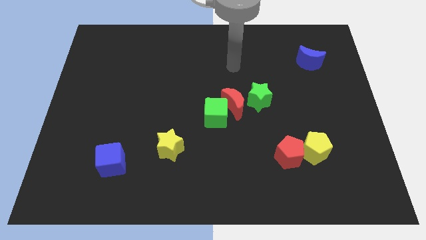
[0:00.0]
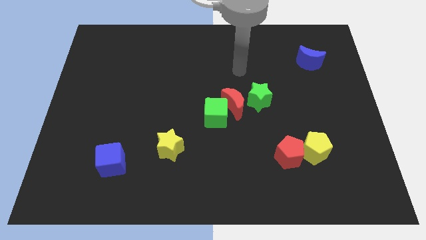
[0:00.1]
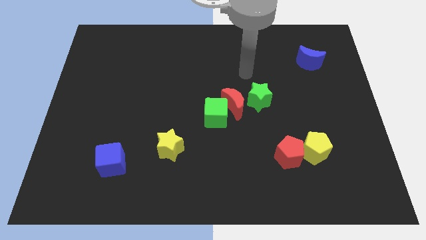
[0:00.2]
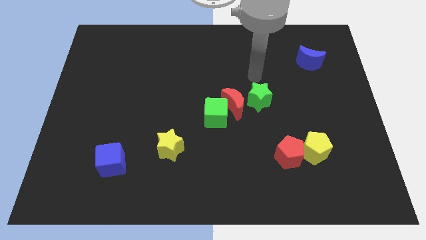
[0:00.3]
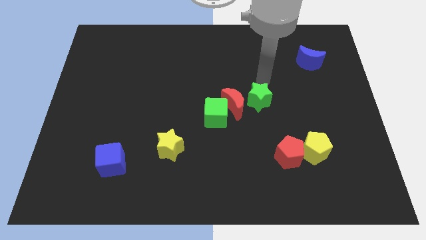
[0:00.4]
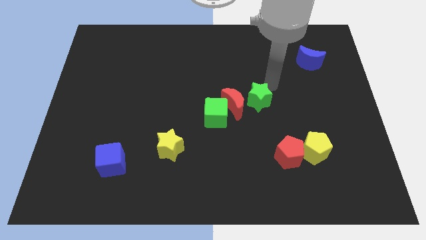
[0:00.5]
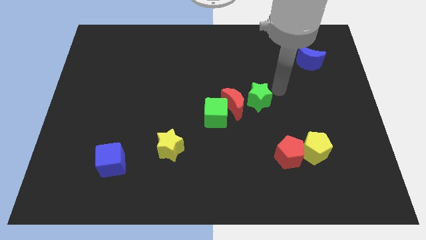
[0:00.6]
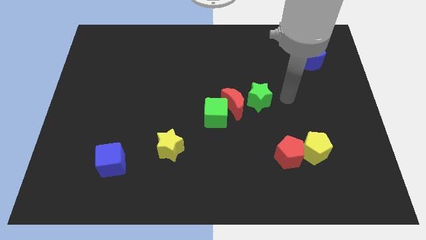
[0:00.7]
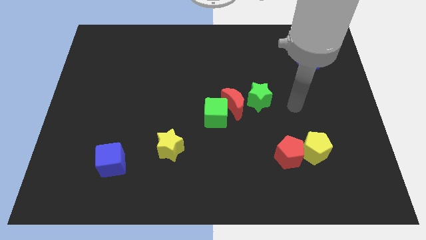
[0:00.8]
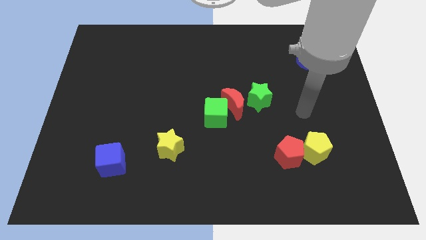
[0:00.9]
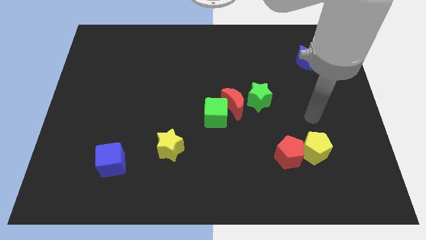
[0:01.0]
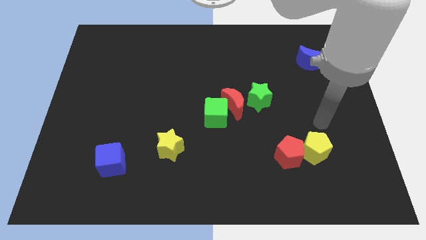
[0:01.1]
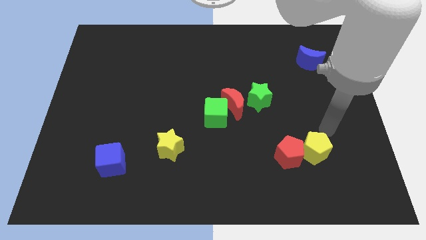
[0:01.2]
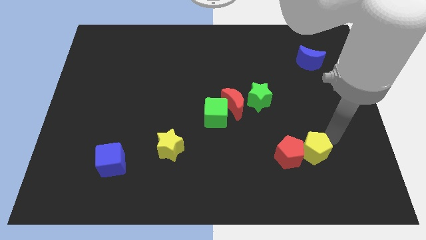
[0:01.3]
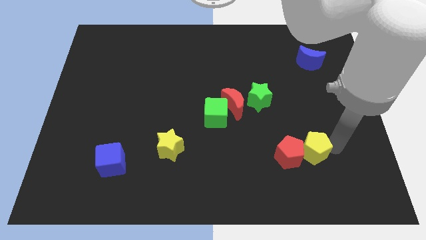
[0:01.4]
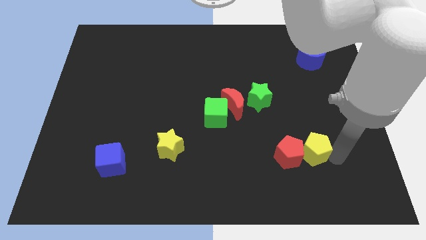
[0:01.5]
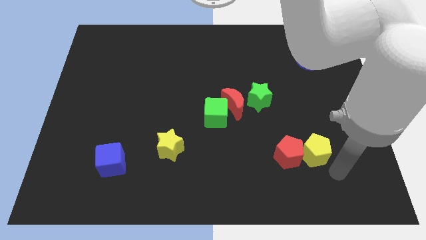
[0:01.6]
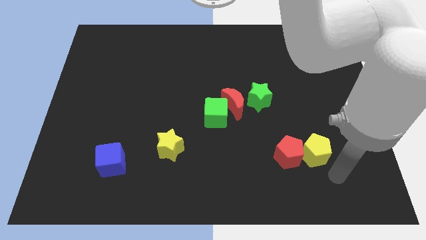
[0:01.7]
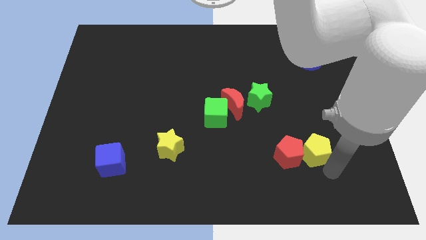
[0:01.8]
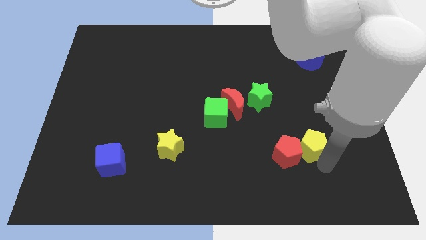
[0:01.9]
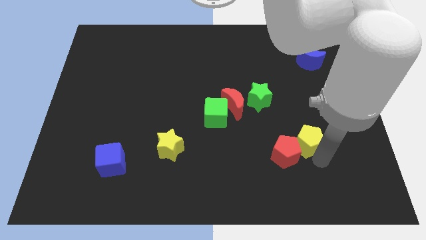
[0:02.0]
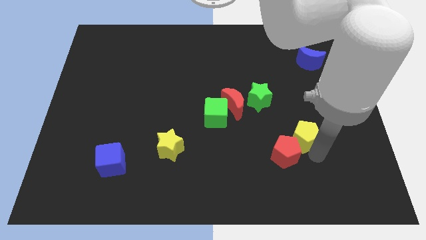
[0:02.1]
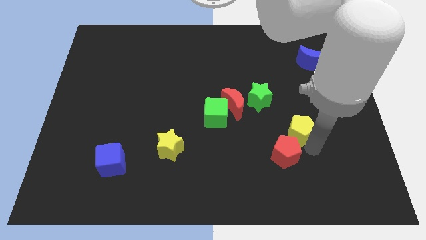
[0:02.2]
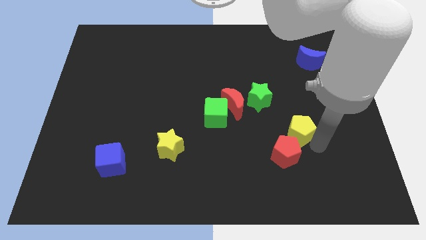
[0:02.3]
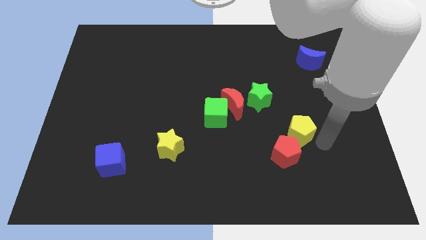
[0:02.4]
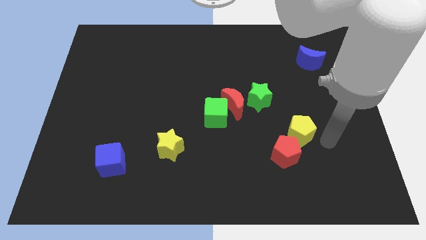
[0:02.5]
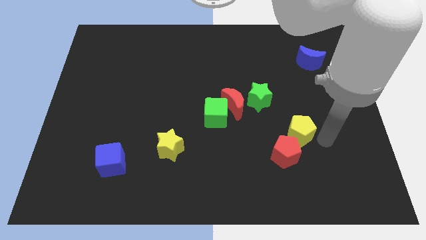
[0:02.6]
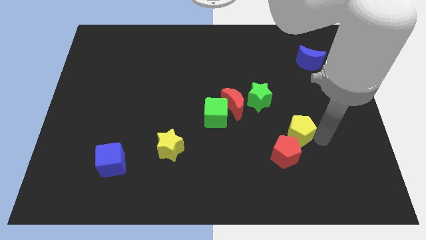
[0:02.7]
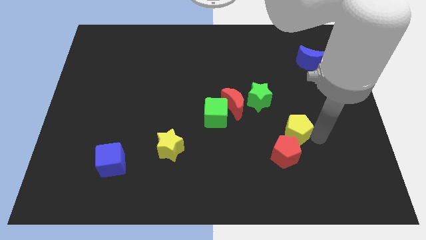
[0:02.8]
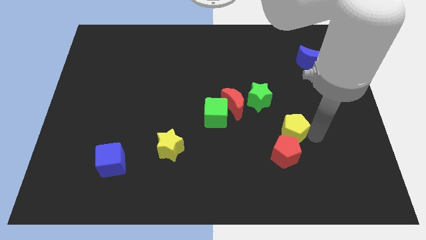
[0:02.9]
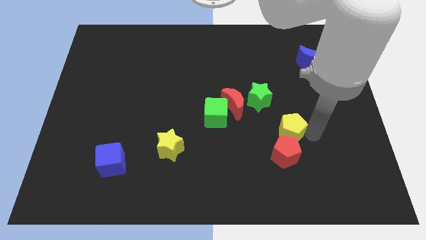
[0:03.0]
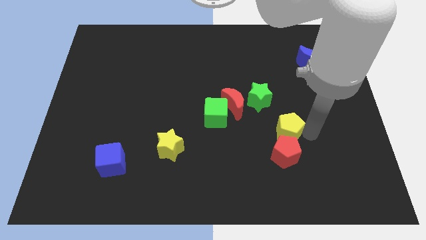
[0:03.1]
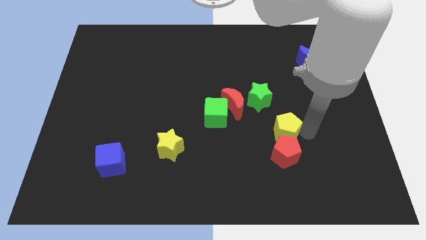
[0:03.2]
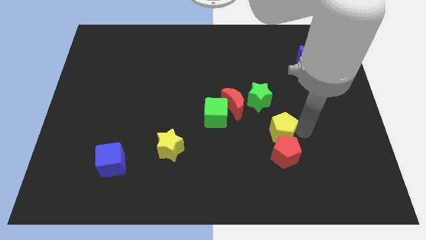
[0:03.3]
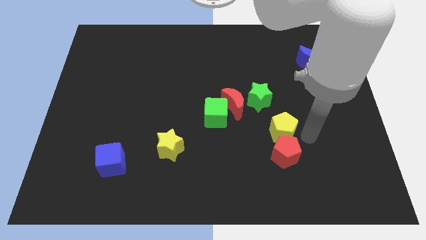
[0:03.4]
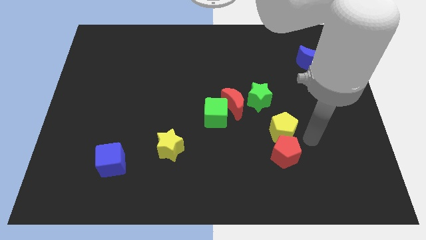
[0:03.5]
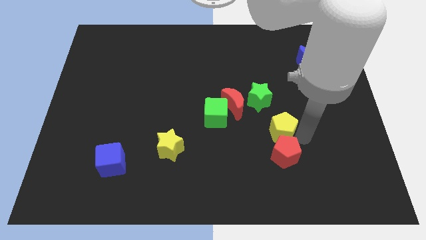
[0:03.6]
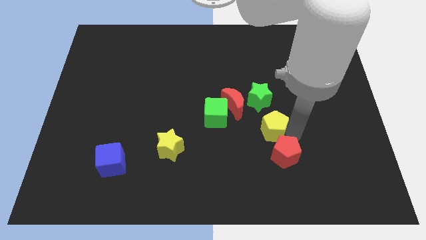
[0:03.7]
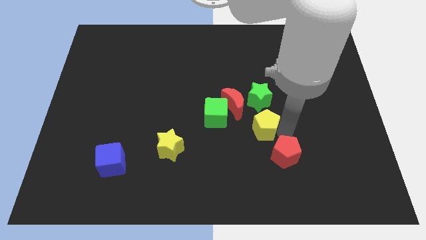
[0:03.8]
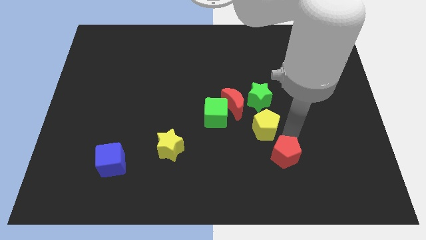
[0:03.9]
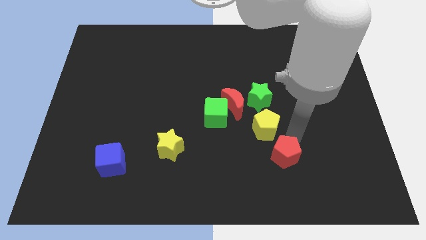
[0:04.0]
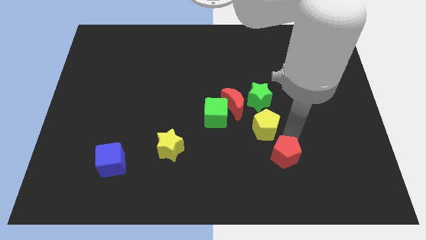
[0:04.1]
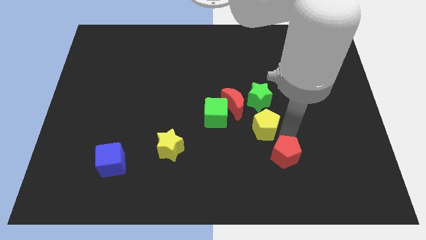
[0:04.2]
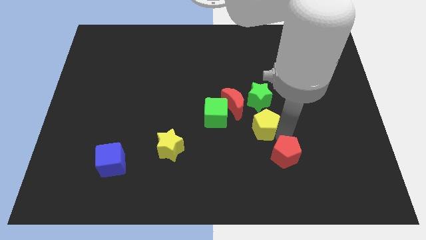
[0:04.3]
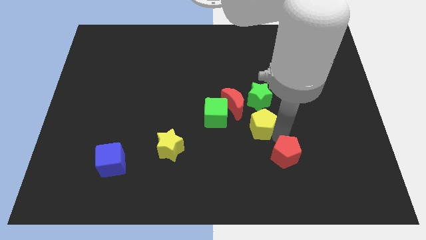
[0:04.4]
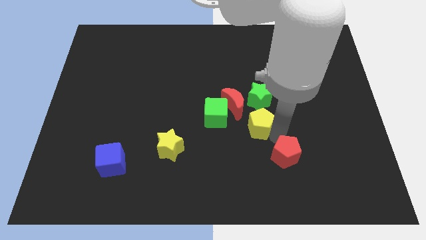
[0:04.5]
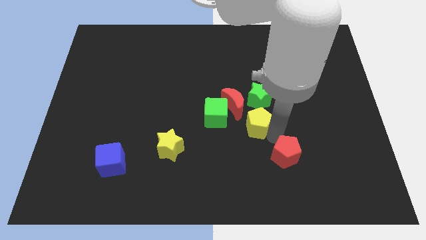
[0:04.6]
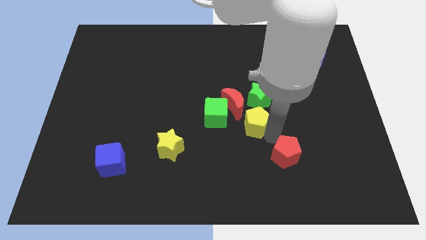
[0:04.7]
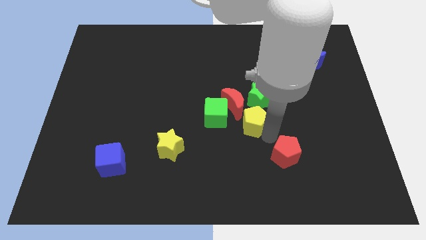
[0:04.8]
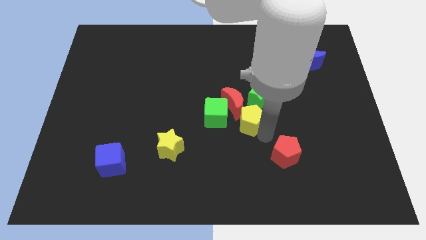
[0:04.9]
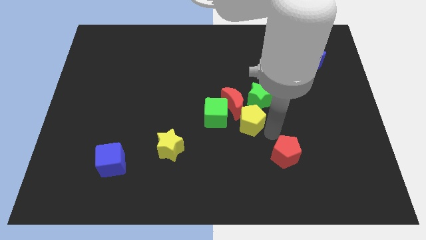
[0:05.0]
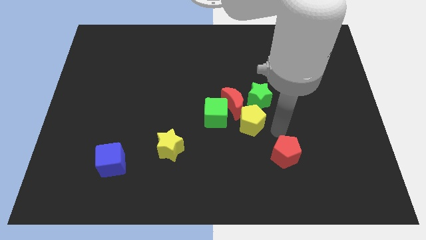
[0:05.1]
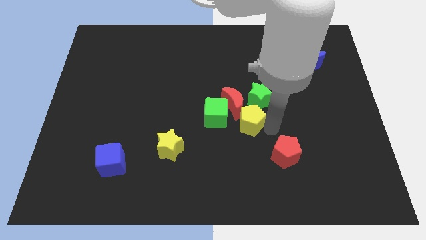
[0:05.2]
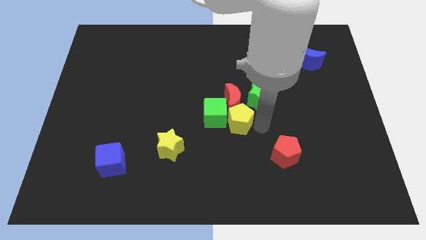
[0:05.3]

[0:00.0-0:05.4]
slide the yellow pentagon next to the green cube
